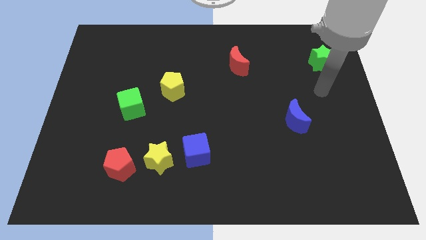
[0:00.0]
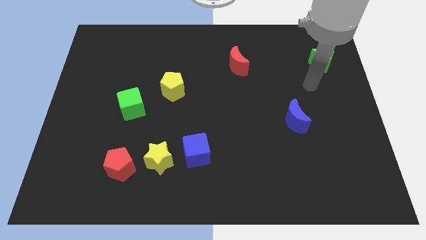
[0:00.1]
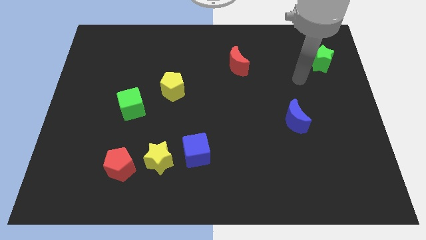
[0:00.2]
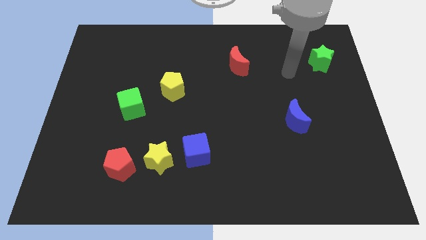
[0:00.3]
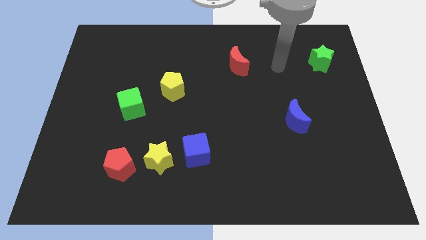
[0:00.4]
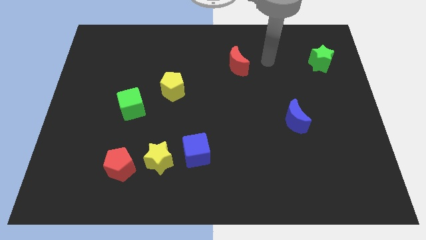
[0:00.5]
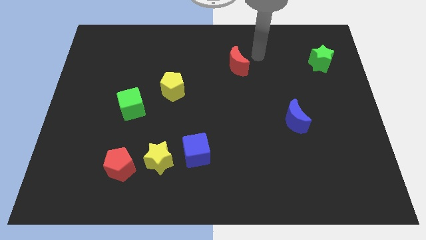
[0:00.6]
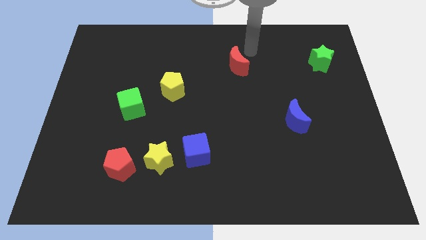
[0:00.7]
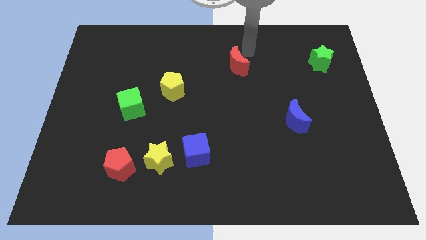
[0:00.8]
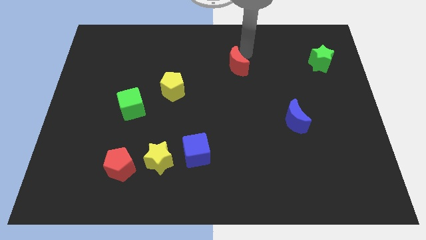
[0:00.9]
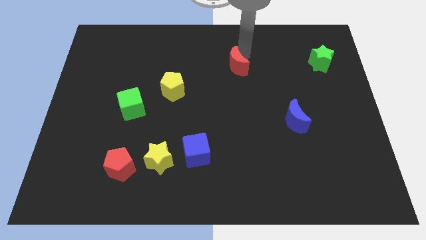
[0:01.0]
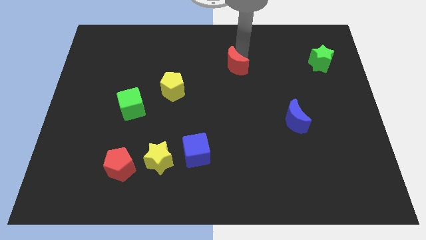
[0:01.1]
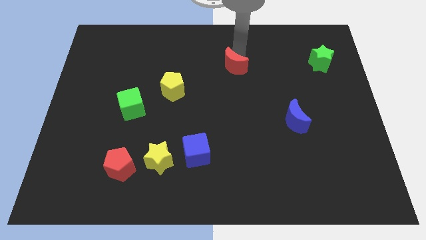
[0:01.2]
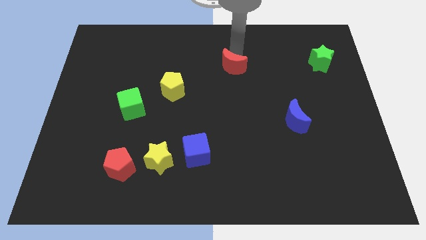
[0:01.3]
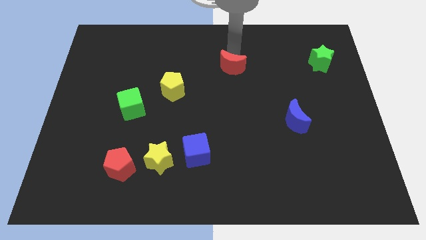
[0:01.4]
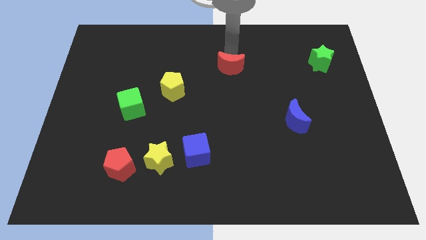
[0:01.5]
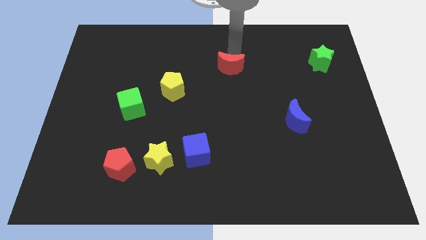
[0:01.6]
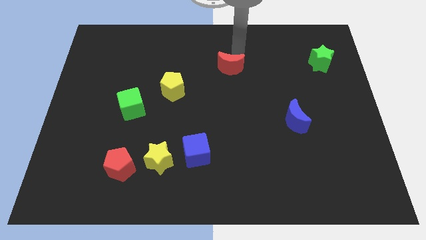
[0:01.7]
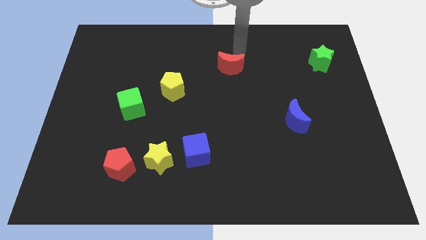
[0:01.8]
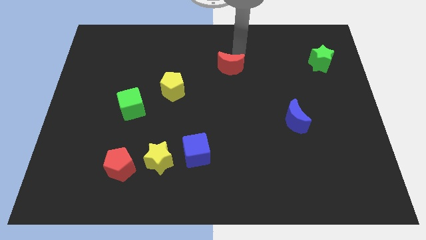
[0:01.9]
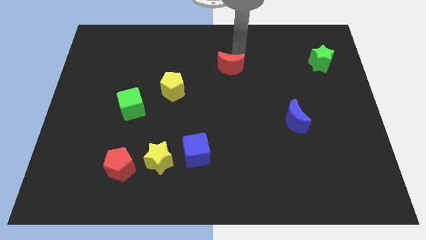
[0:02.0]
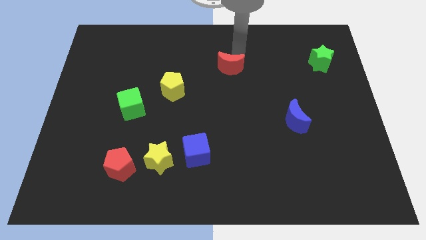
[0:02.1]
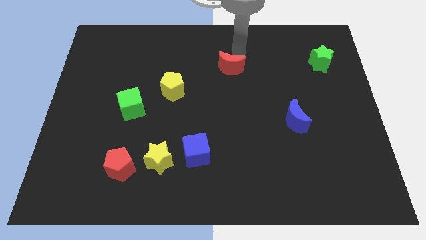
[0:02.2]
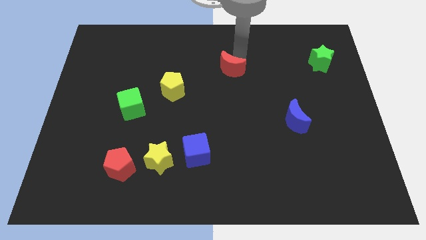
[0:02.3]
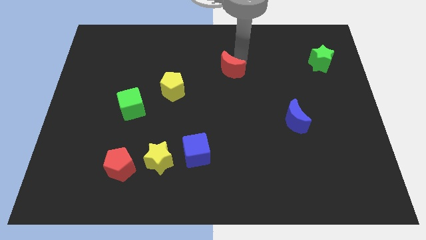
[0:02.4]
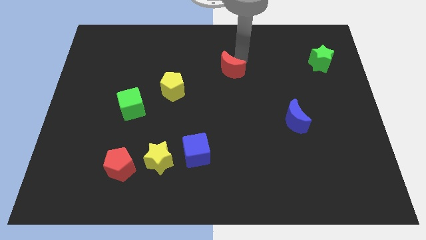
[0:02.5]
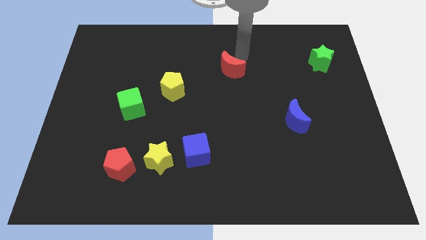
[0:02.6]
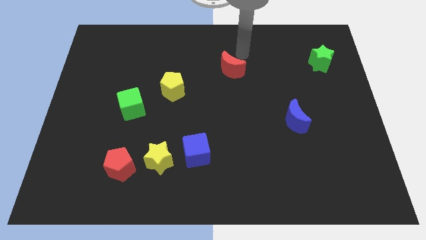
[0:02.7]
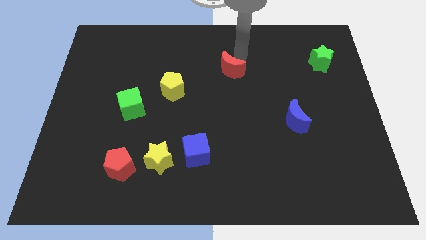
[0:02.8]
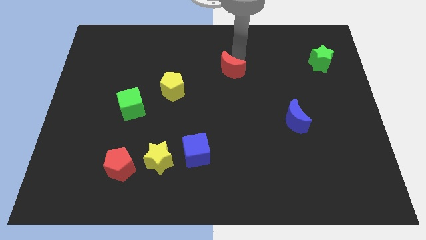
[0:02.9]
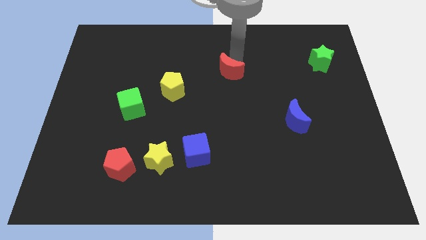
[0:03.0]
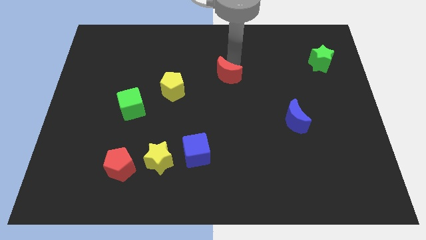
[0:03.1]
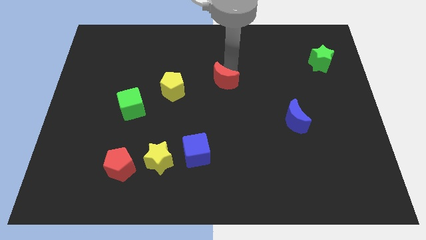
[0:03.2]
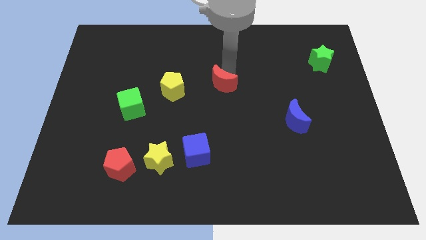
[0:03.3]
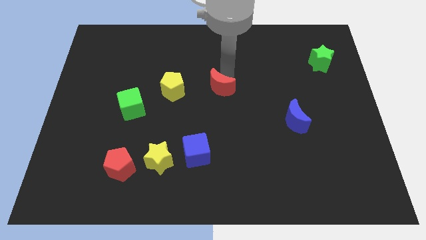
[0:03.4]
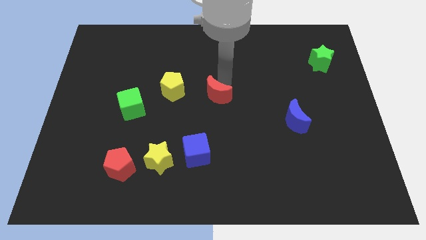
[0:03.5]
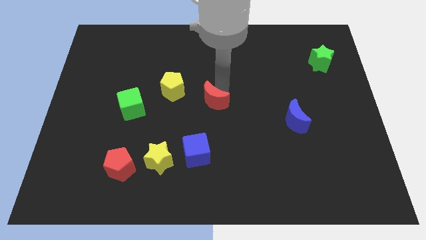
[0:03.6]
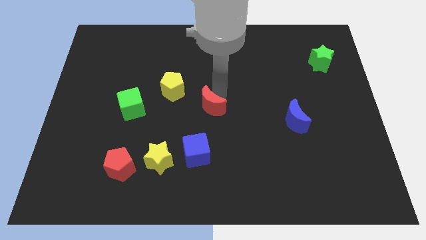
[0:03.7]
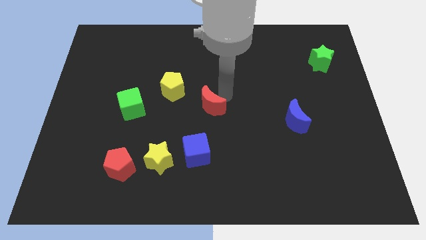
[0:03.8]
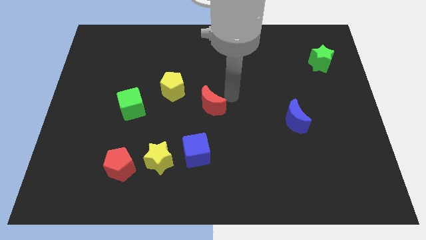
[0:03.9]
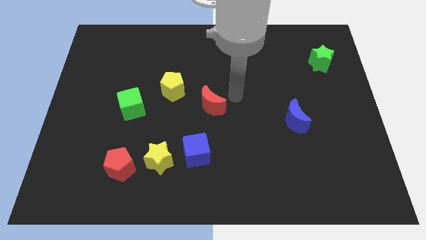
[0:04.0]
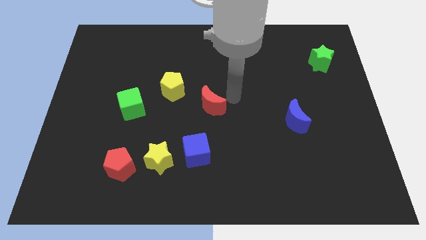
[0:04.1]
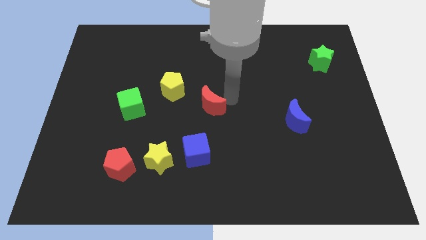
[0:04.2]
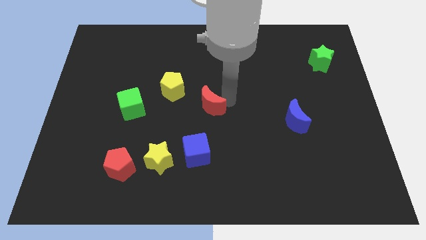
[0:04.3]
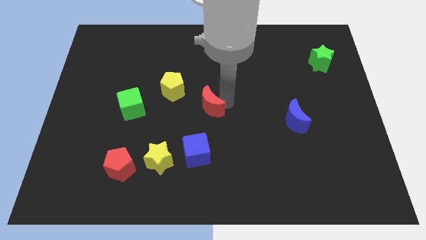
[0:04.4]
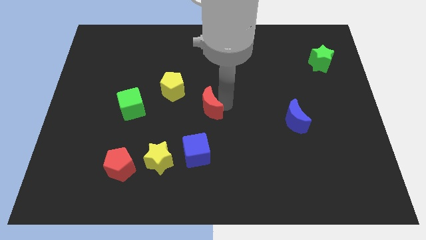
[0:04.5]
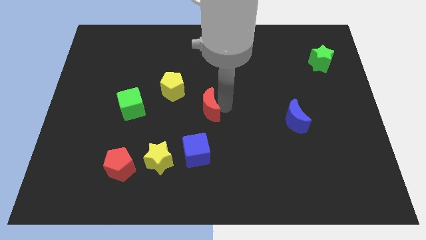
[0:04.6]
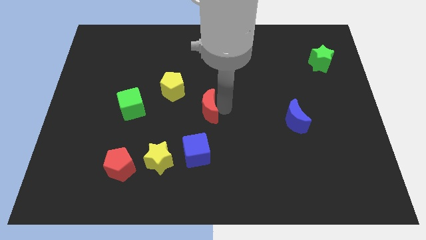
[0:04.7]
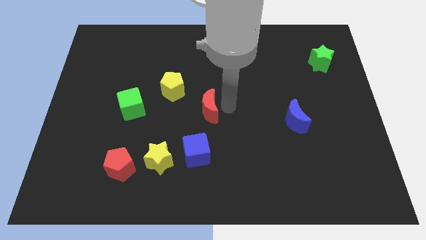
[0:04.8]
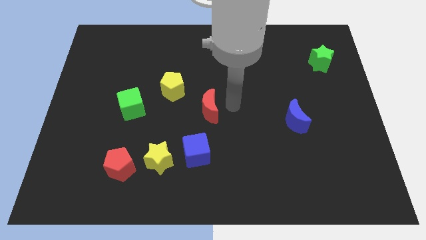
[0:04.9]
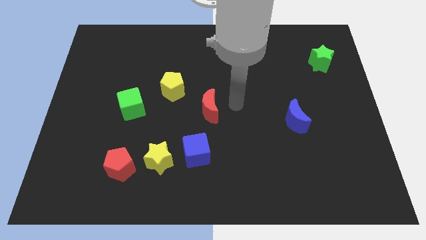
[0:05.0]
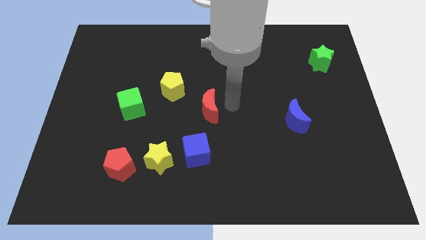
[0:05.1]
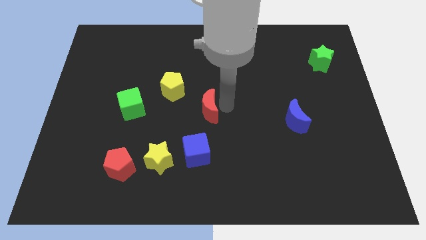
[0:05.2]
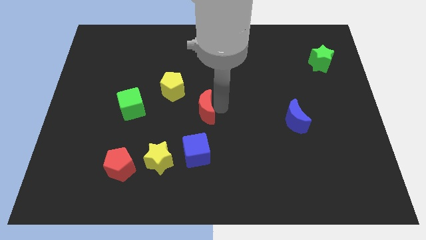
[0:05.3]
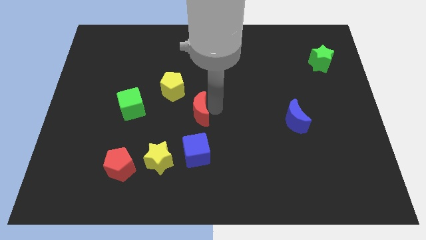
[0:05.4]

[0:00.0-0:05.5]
move the red moon to the right side of the green cube

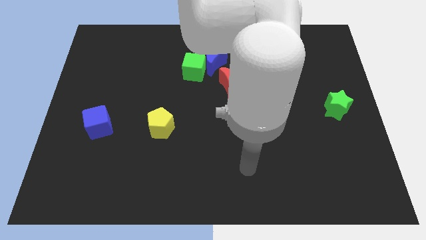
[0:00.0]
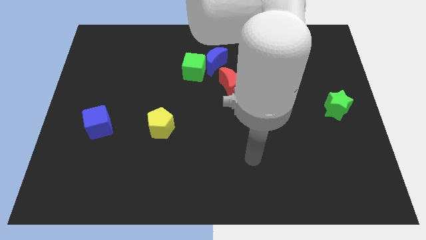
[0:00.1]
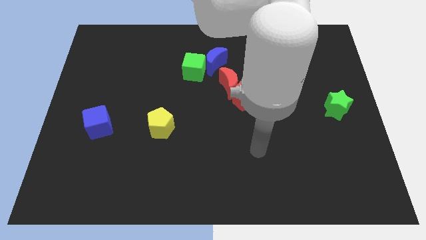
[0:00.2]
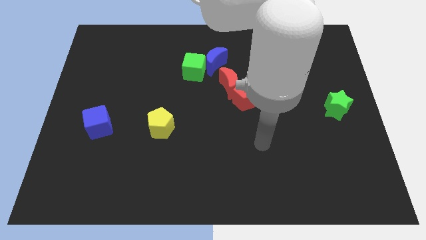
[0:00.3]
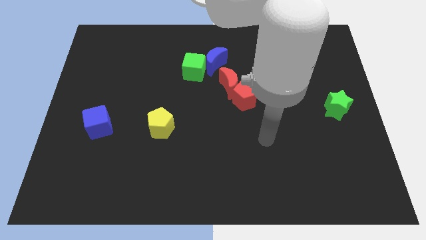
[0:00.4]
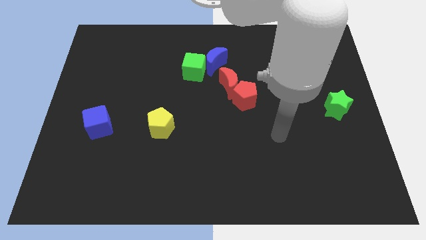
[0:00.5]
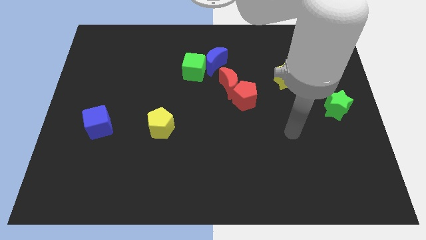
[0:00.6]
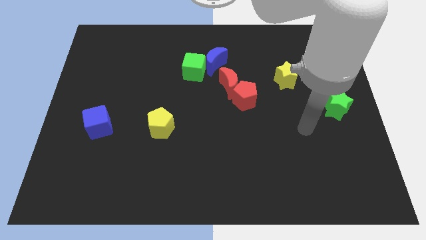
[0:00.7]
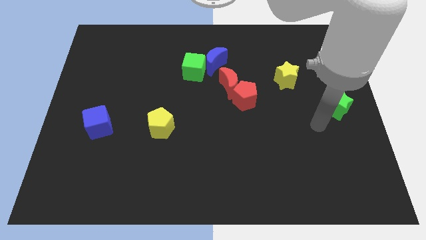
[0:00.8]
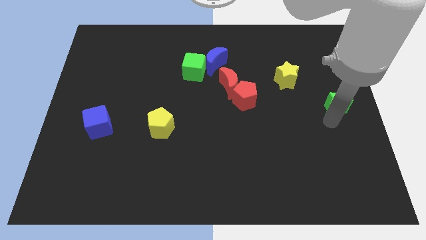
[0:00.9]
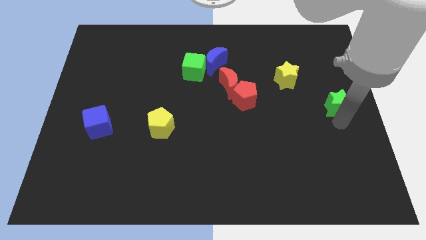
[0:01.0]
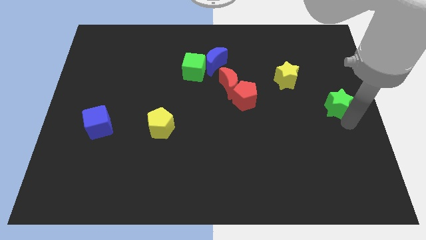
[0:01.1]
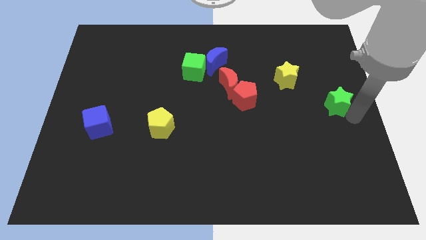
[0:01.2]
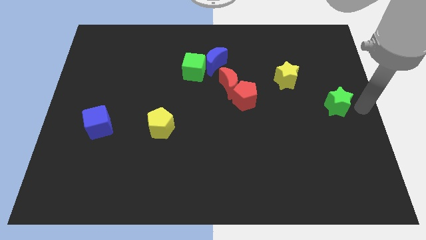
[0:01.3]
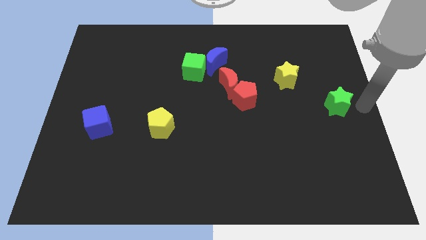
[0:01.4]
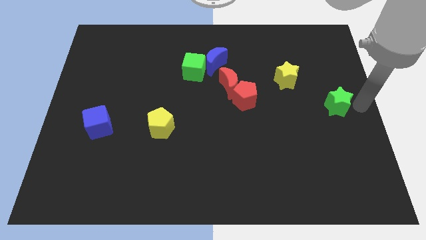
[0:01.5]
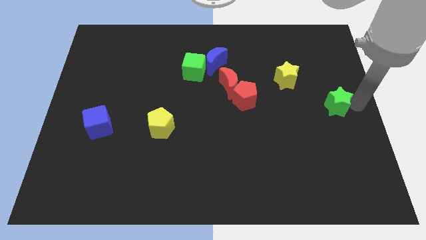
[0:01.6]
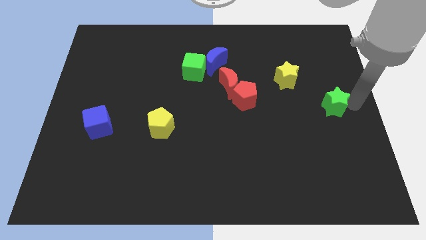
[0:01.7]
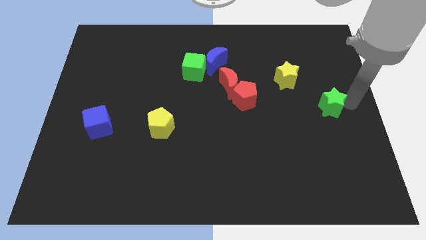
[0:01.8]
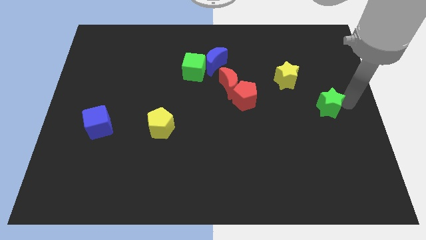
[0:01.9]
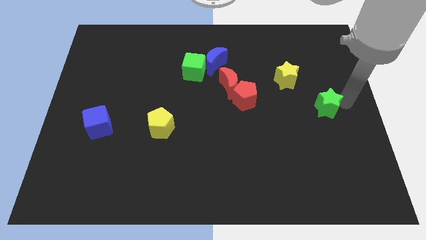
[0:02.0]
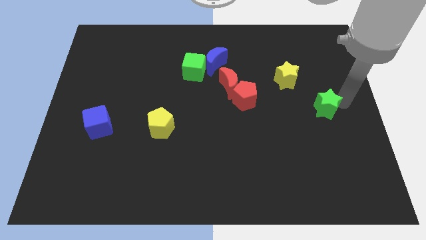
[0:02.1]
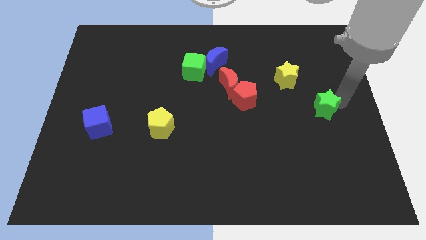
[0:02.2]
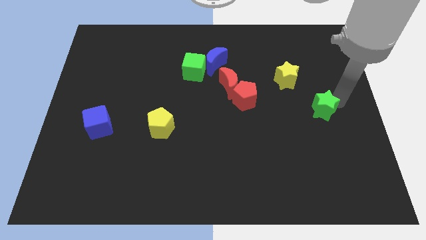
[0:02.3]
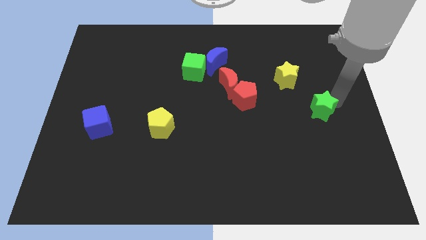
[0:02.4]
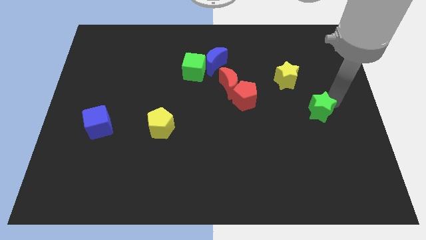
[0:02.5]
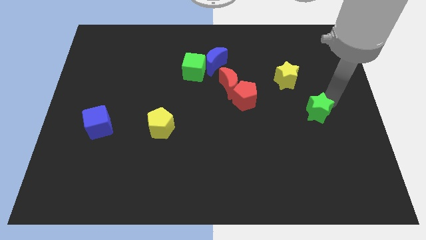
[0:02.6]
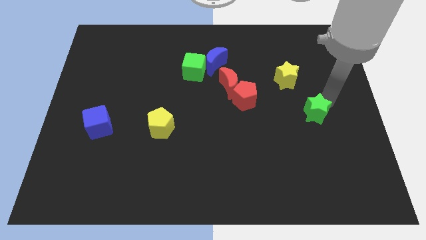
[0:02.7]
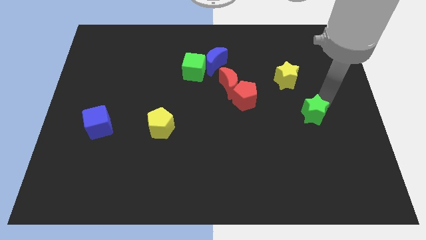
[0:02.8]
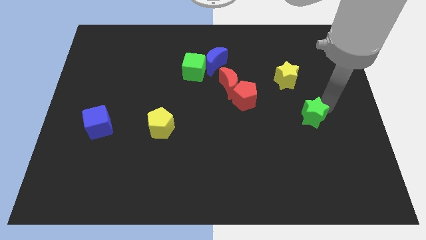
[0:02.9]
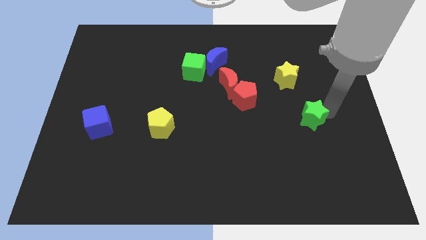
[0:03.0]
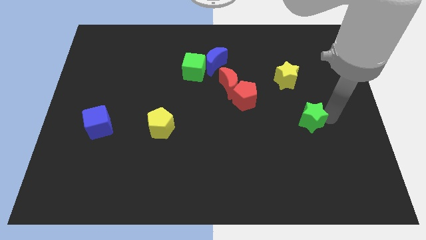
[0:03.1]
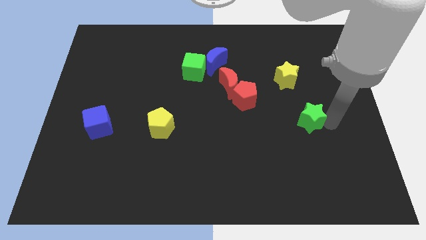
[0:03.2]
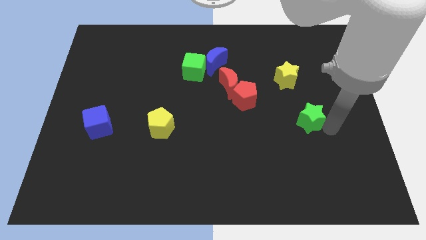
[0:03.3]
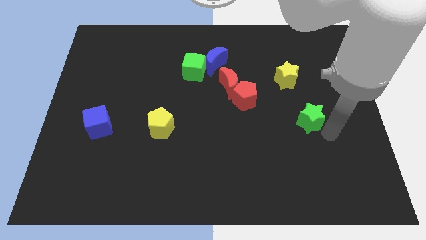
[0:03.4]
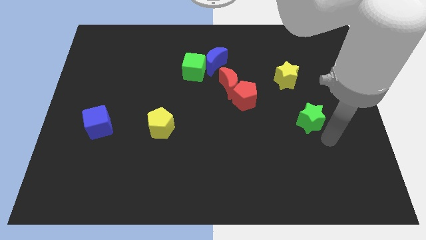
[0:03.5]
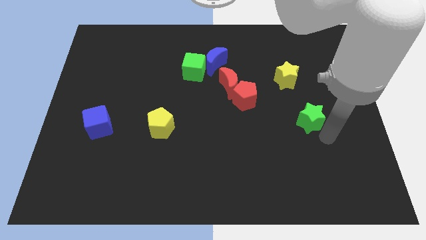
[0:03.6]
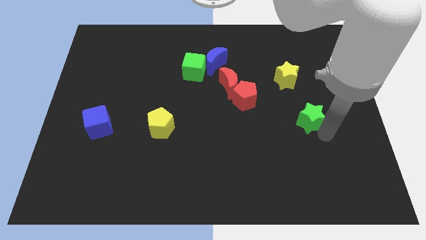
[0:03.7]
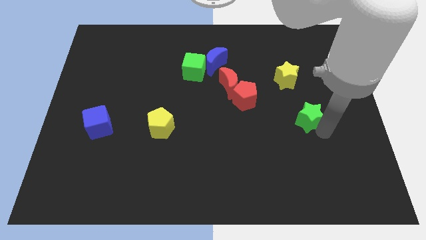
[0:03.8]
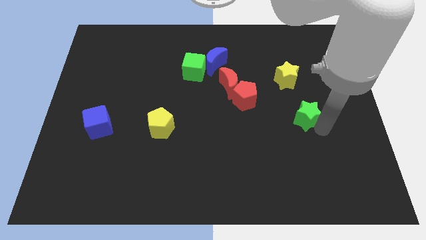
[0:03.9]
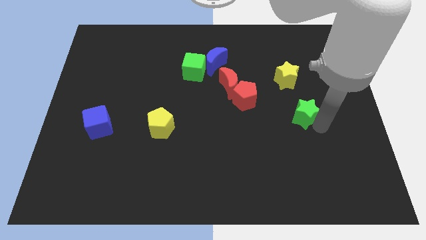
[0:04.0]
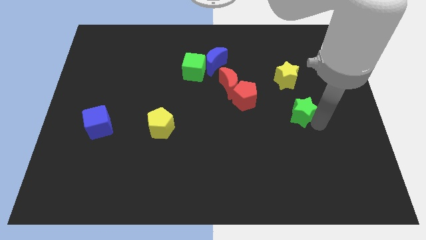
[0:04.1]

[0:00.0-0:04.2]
slide the green star just right of the red pentagon
